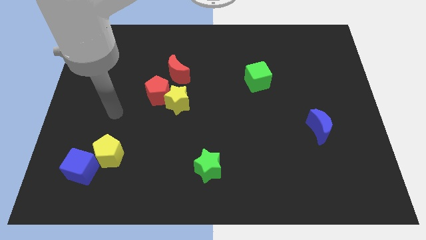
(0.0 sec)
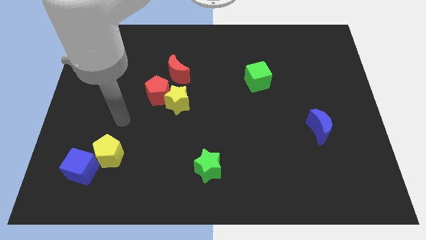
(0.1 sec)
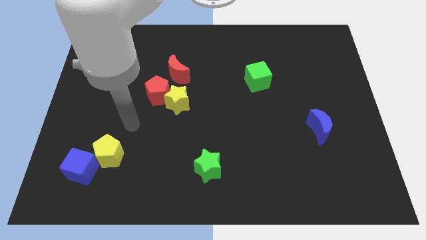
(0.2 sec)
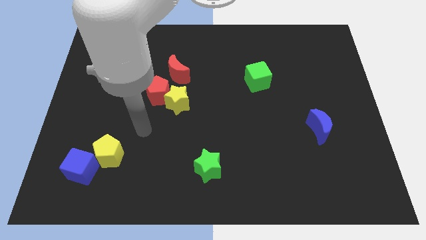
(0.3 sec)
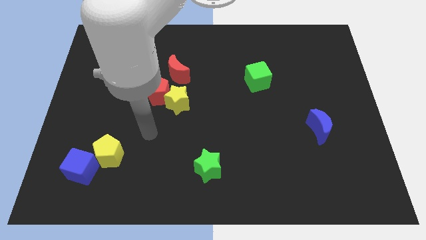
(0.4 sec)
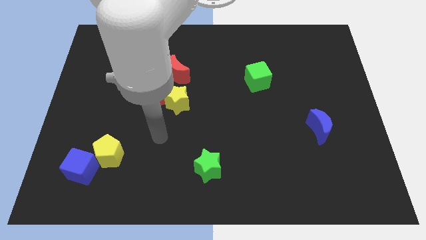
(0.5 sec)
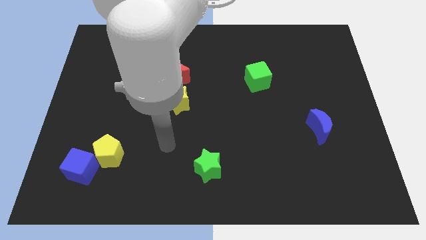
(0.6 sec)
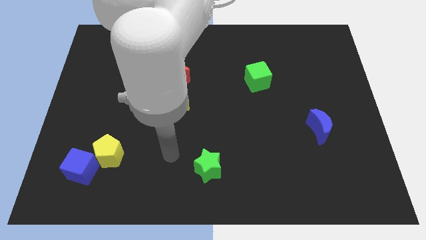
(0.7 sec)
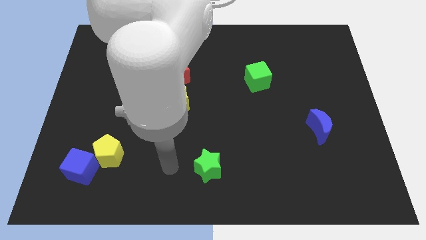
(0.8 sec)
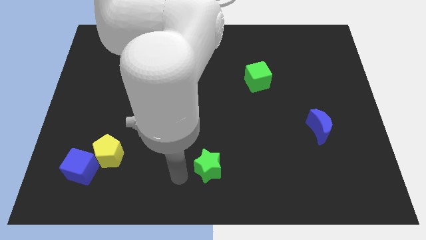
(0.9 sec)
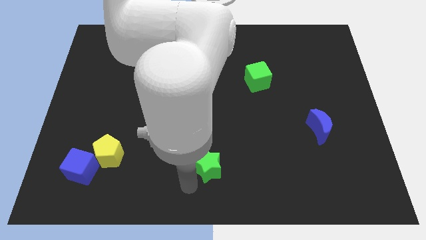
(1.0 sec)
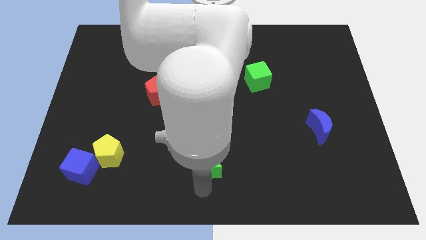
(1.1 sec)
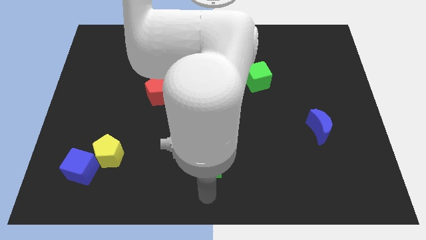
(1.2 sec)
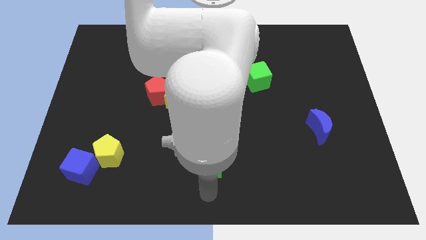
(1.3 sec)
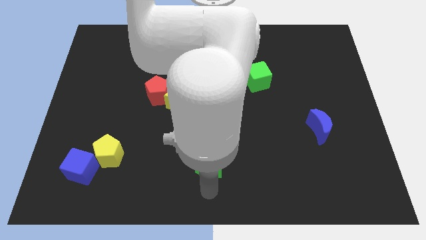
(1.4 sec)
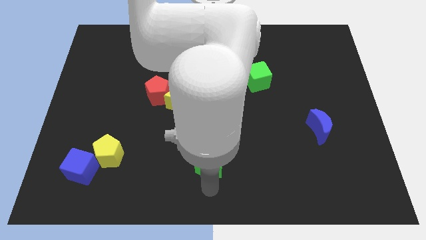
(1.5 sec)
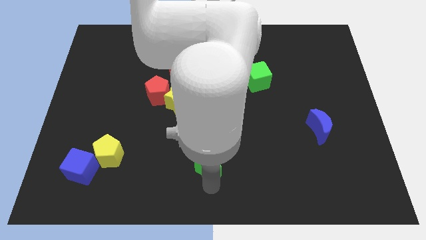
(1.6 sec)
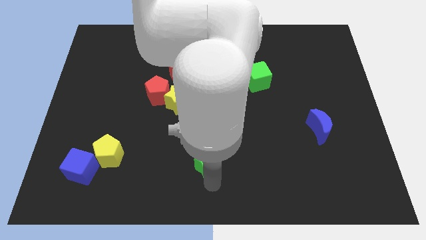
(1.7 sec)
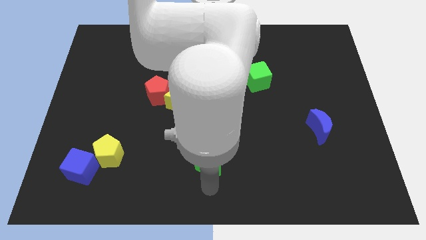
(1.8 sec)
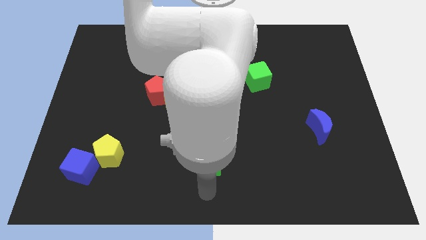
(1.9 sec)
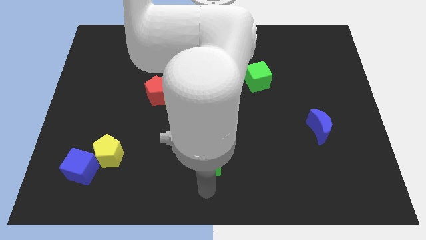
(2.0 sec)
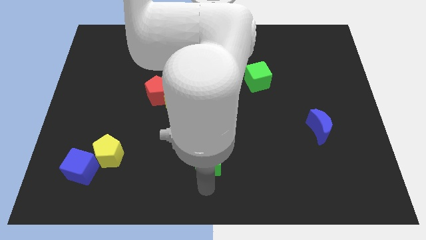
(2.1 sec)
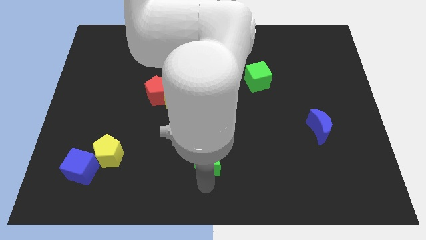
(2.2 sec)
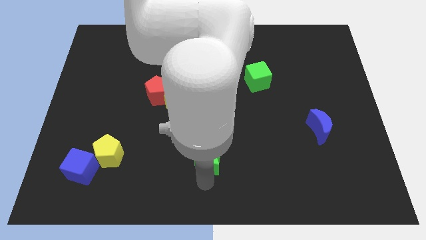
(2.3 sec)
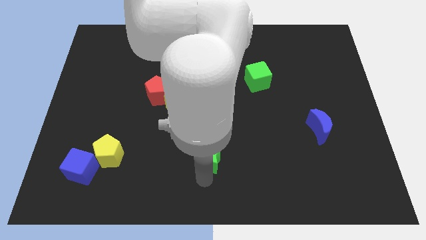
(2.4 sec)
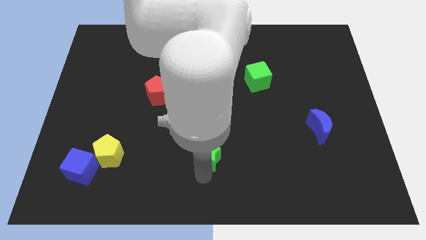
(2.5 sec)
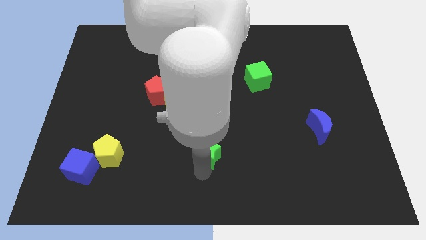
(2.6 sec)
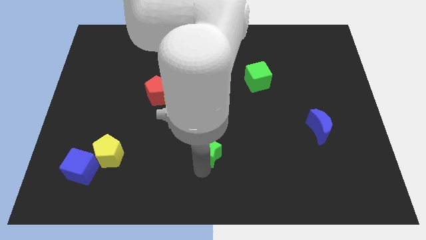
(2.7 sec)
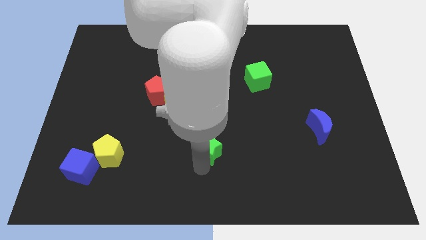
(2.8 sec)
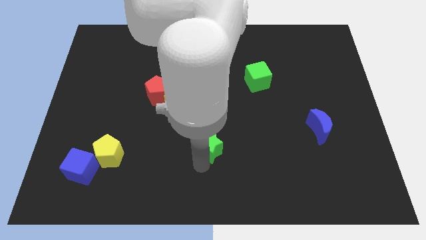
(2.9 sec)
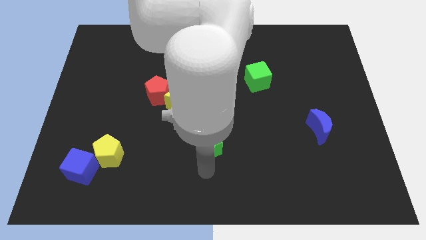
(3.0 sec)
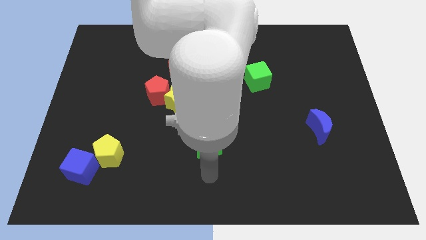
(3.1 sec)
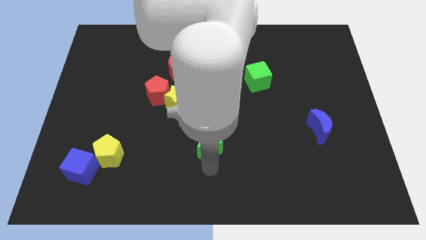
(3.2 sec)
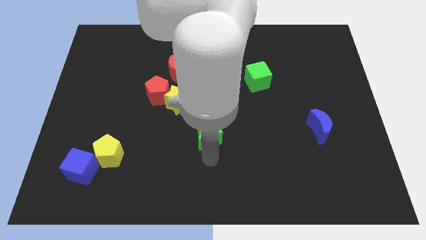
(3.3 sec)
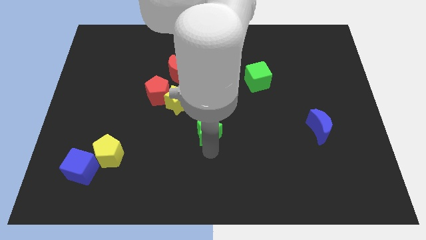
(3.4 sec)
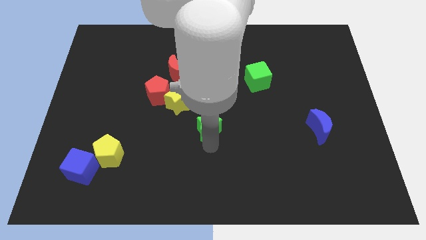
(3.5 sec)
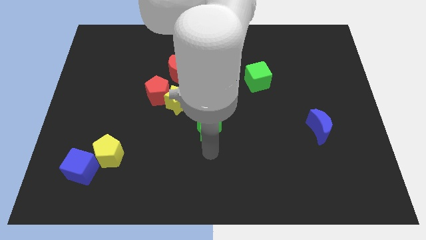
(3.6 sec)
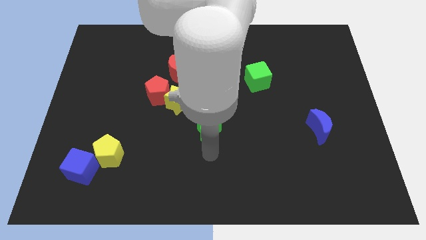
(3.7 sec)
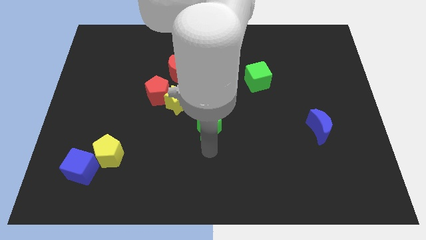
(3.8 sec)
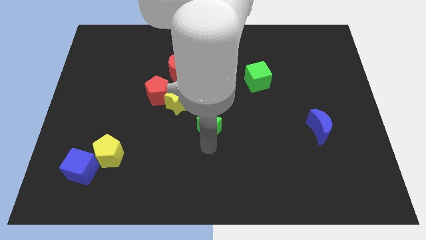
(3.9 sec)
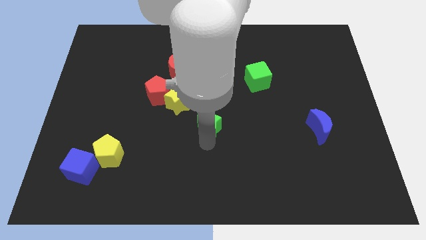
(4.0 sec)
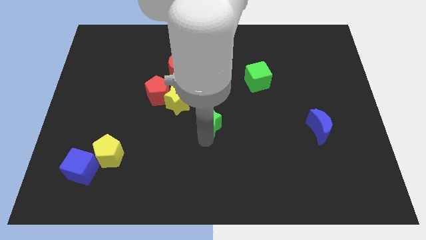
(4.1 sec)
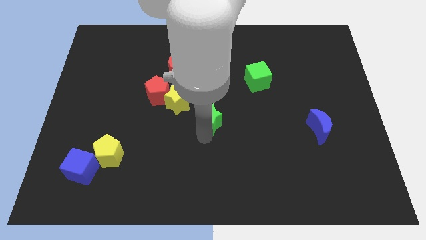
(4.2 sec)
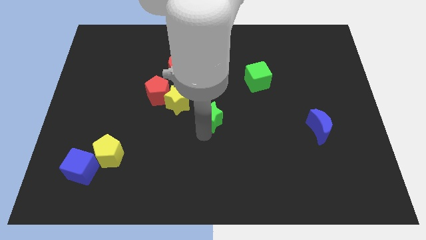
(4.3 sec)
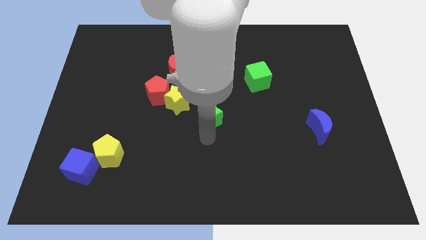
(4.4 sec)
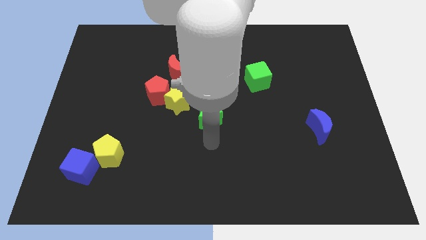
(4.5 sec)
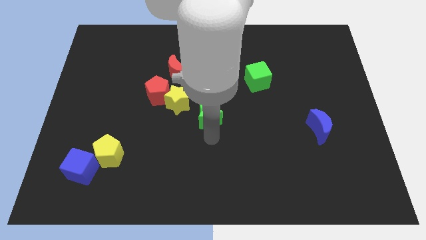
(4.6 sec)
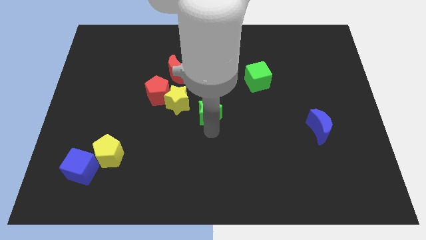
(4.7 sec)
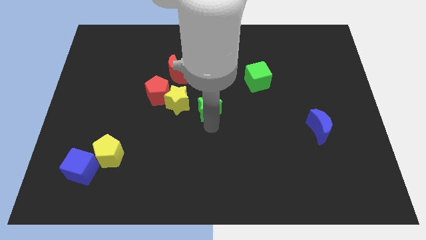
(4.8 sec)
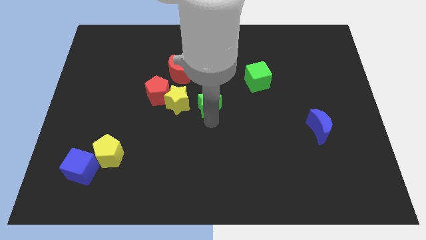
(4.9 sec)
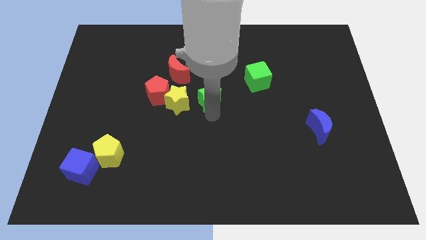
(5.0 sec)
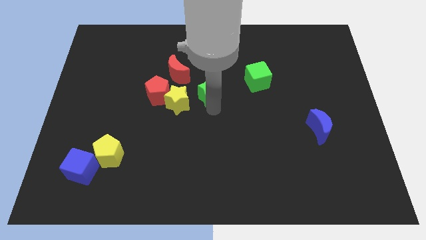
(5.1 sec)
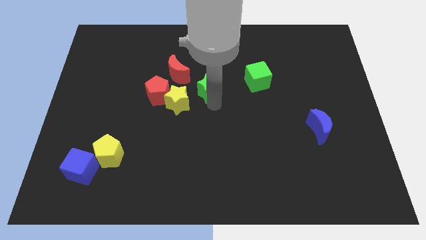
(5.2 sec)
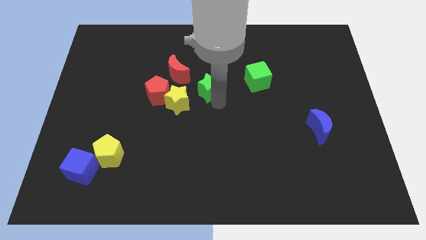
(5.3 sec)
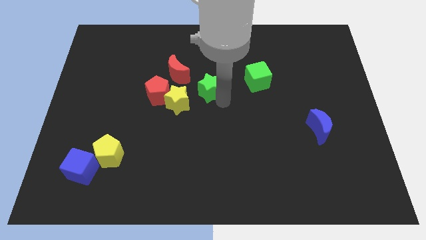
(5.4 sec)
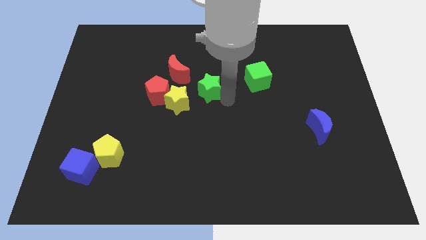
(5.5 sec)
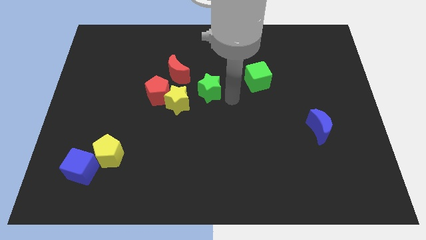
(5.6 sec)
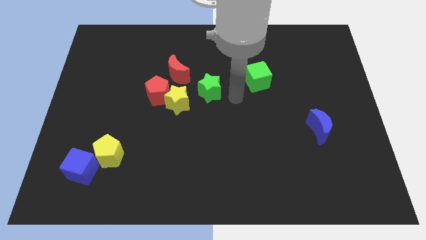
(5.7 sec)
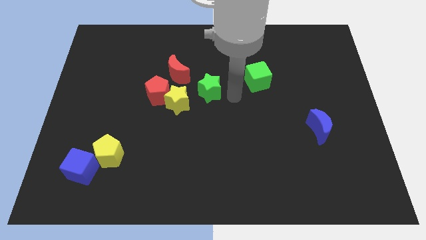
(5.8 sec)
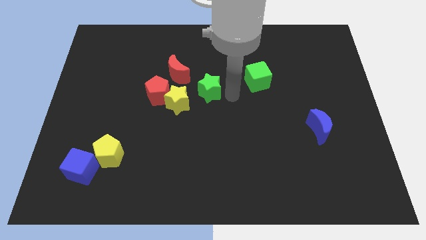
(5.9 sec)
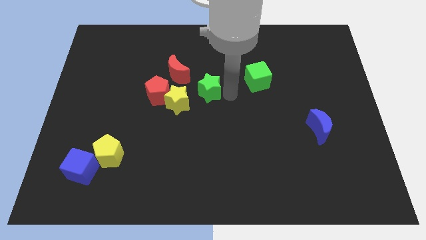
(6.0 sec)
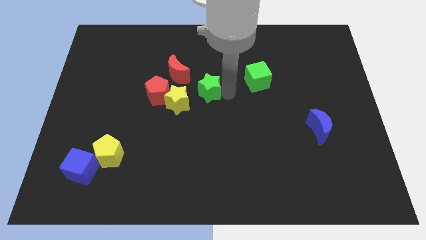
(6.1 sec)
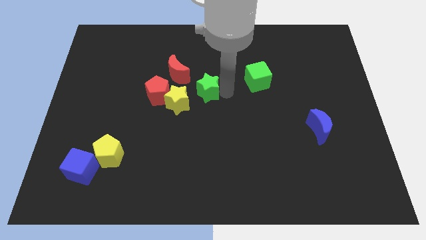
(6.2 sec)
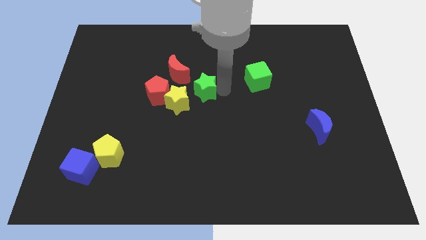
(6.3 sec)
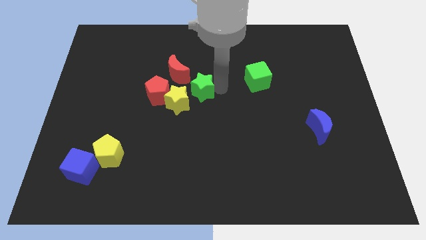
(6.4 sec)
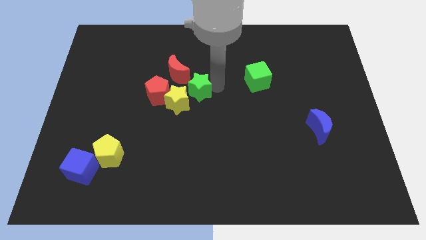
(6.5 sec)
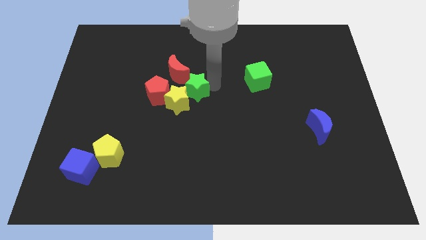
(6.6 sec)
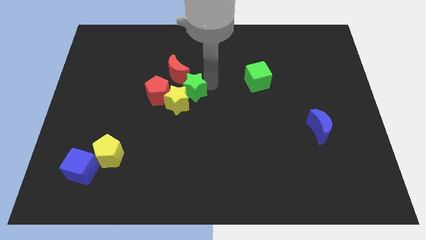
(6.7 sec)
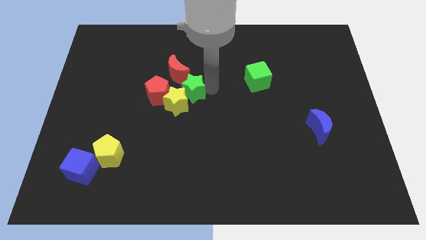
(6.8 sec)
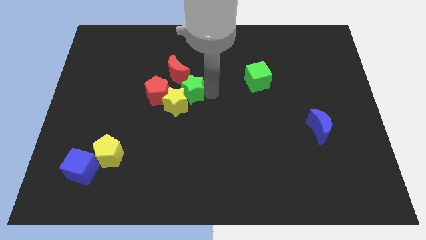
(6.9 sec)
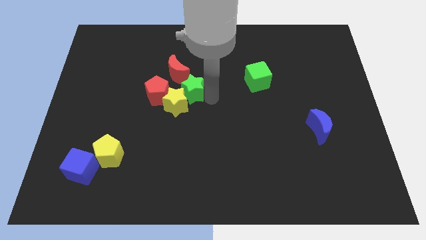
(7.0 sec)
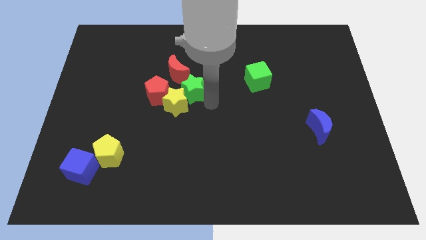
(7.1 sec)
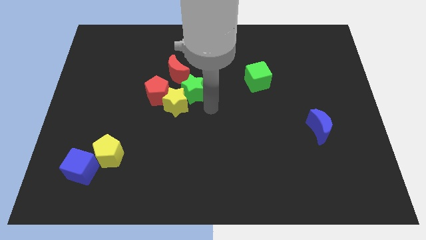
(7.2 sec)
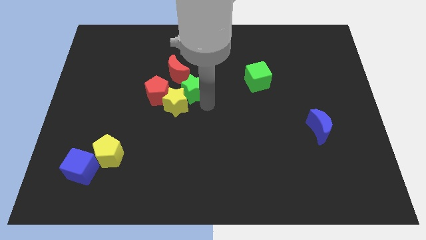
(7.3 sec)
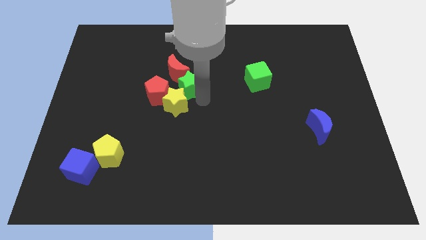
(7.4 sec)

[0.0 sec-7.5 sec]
put the green star close to the red moon
